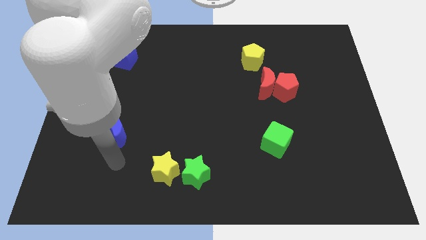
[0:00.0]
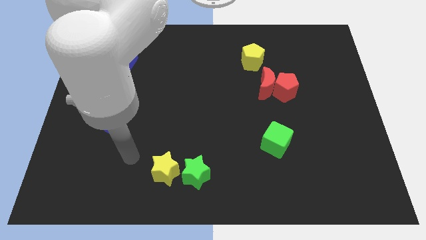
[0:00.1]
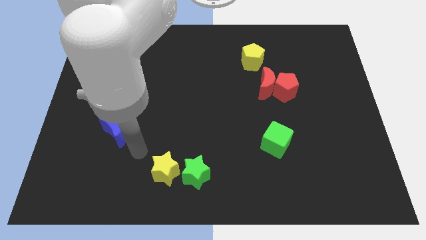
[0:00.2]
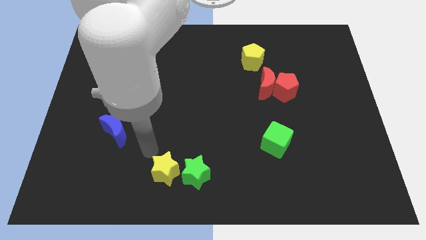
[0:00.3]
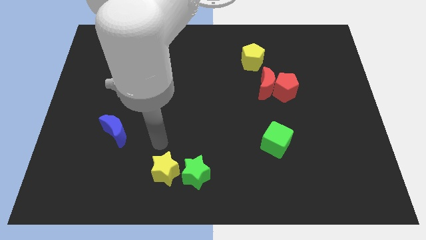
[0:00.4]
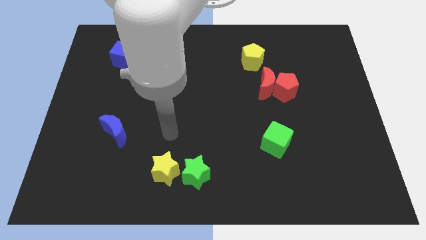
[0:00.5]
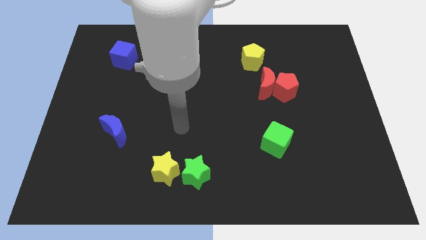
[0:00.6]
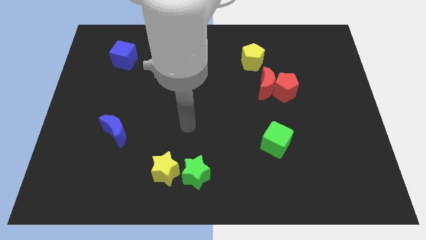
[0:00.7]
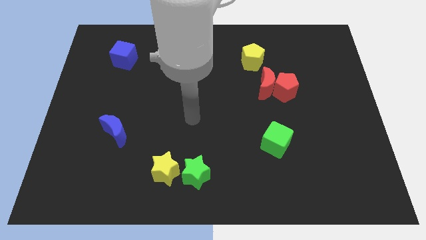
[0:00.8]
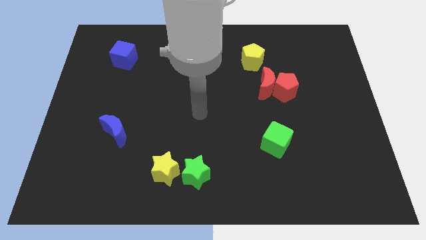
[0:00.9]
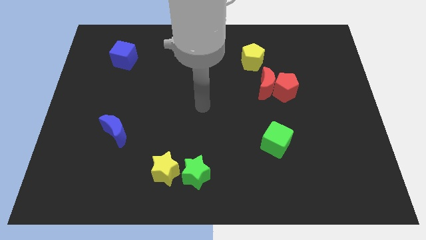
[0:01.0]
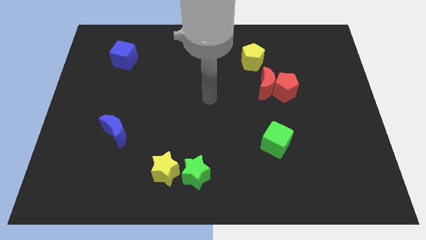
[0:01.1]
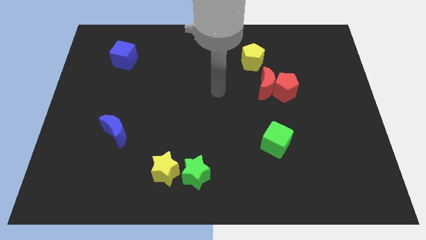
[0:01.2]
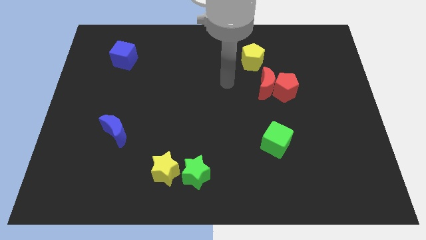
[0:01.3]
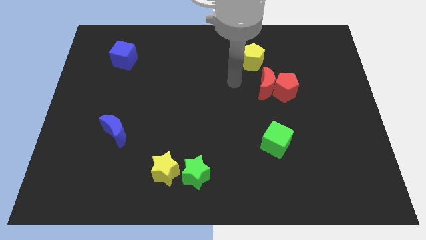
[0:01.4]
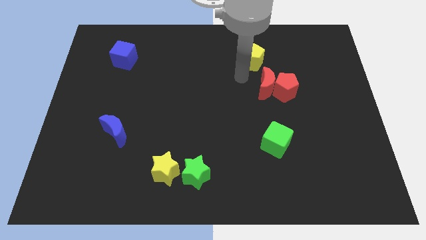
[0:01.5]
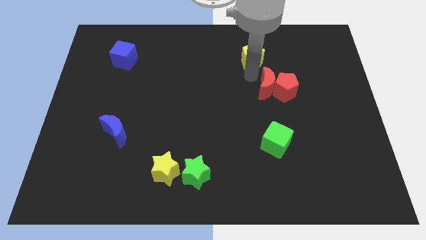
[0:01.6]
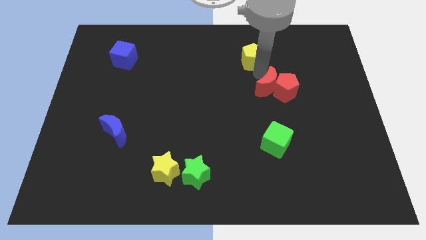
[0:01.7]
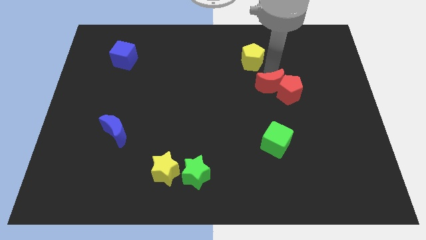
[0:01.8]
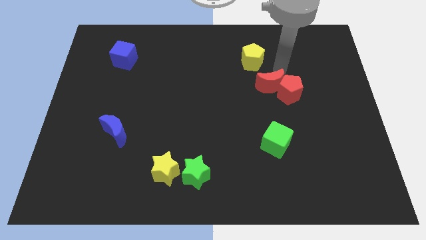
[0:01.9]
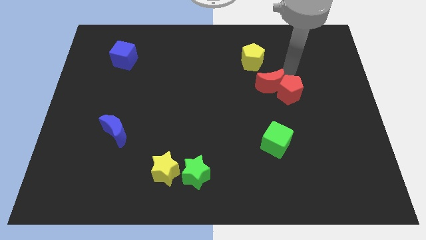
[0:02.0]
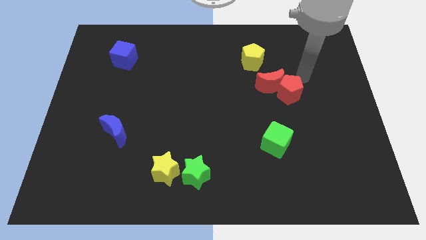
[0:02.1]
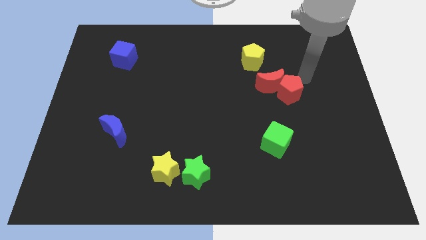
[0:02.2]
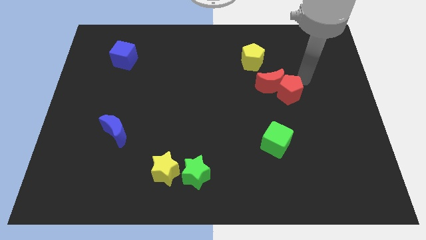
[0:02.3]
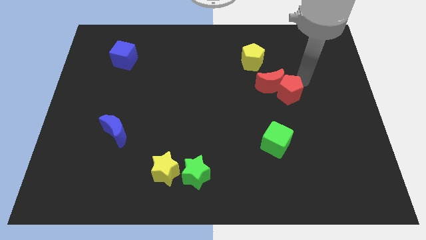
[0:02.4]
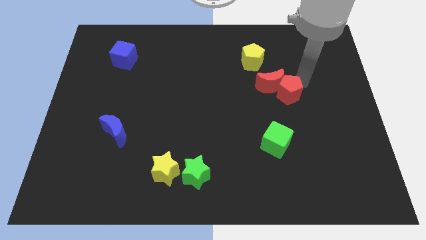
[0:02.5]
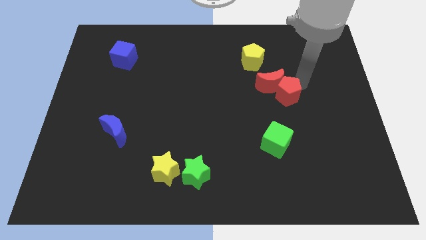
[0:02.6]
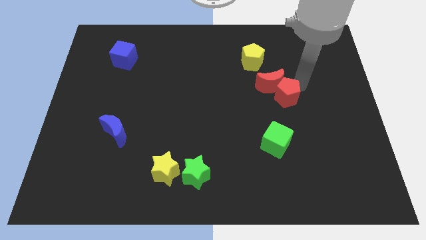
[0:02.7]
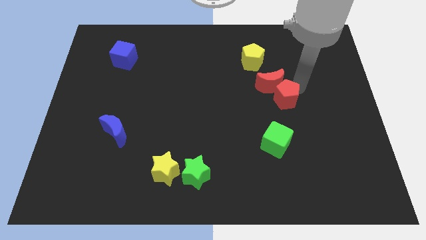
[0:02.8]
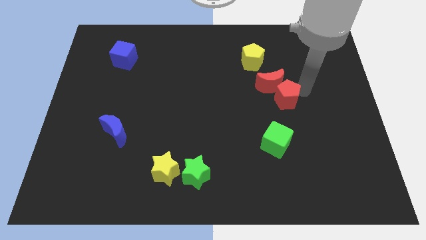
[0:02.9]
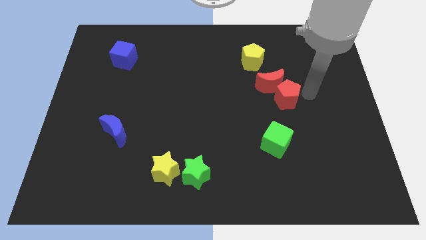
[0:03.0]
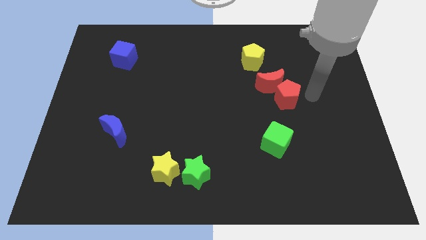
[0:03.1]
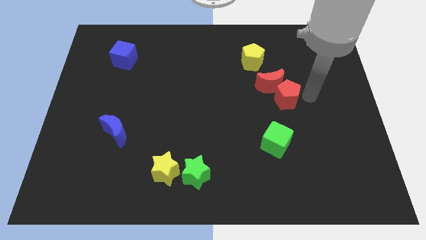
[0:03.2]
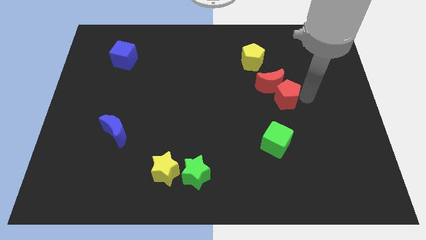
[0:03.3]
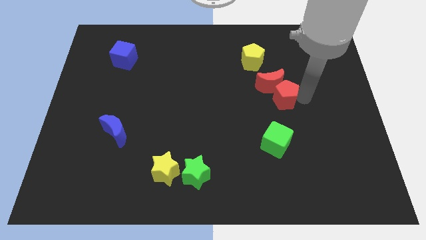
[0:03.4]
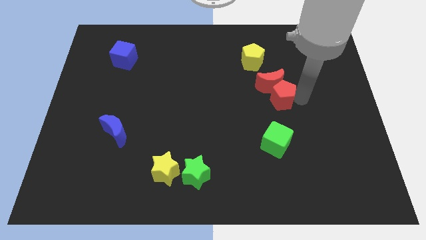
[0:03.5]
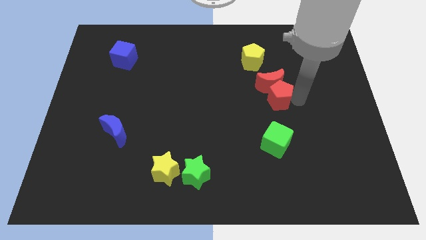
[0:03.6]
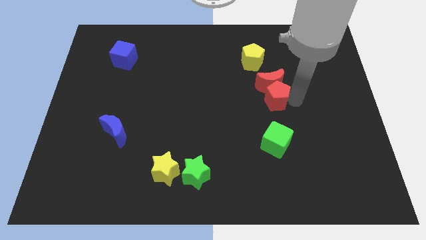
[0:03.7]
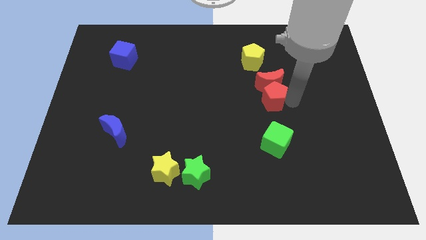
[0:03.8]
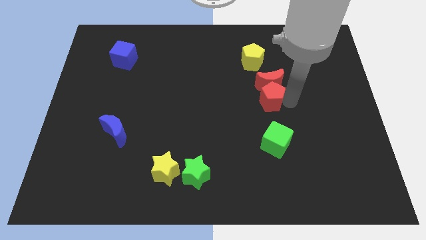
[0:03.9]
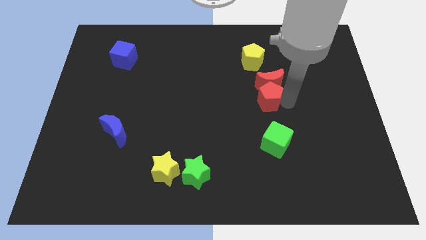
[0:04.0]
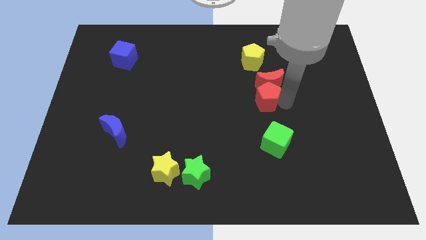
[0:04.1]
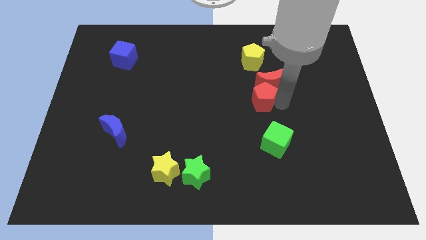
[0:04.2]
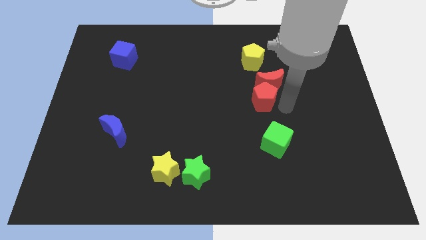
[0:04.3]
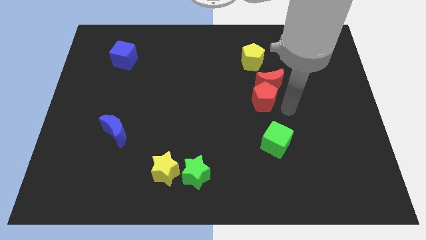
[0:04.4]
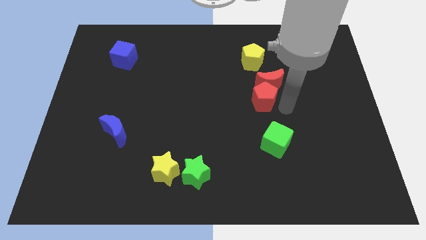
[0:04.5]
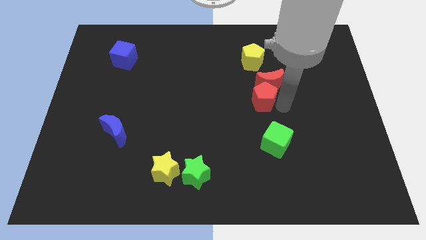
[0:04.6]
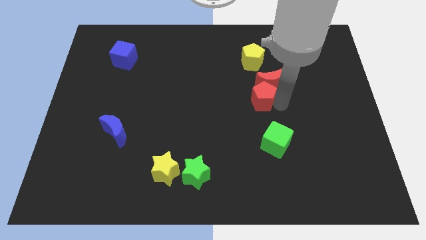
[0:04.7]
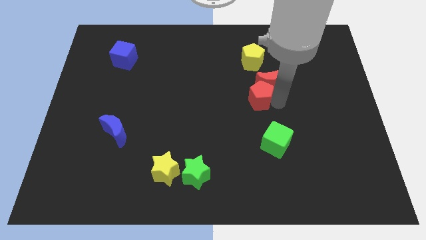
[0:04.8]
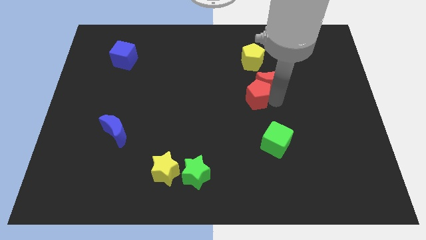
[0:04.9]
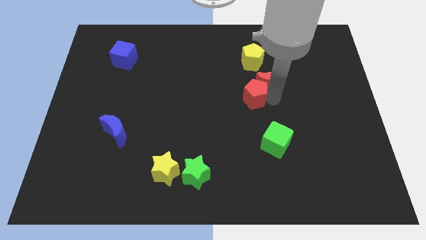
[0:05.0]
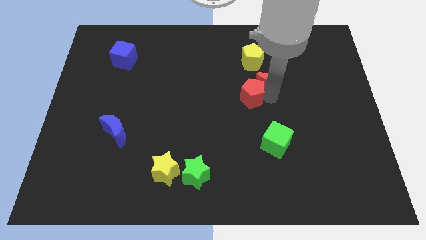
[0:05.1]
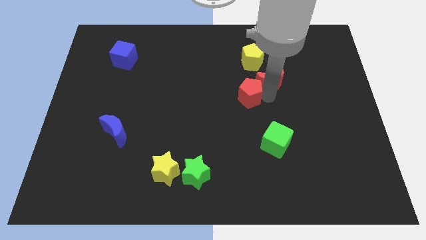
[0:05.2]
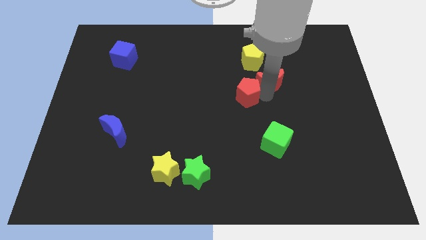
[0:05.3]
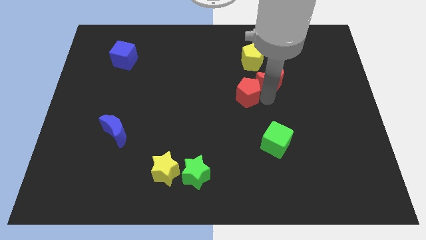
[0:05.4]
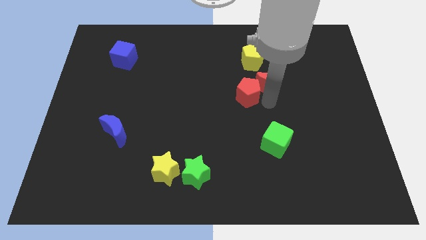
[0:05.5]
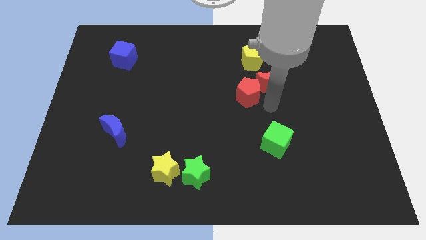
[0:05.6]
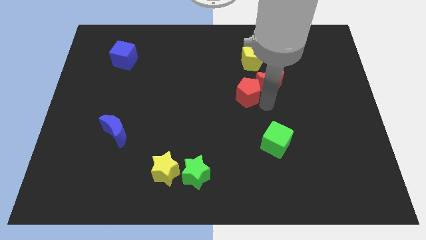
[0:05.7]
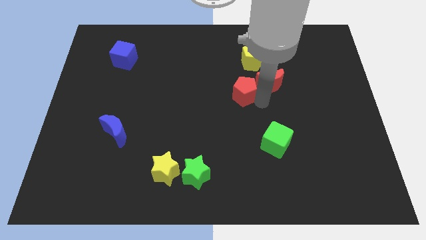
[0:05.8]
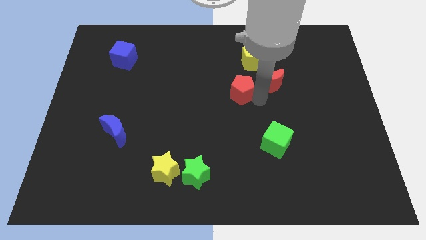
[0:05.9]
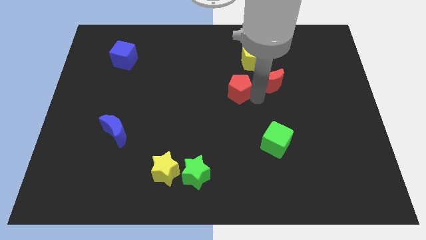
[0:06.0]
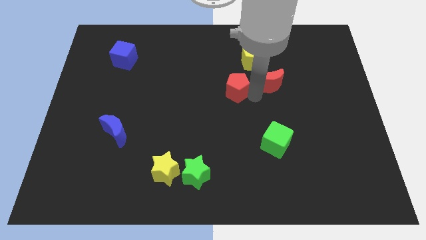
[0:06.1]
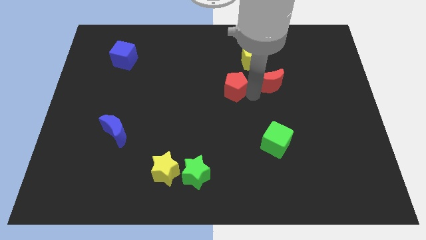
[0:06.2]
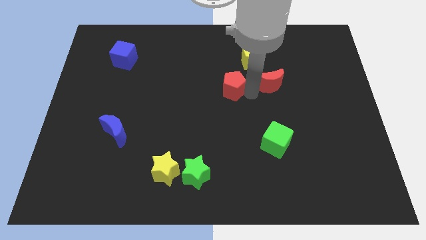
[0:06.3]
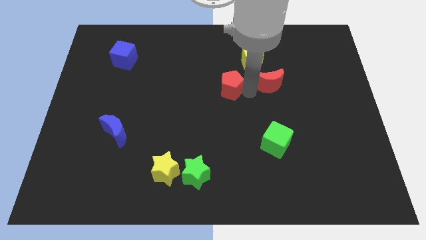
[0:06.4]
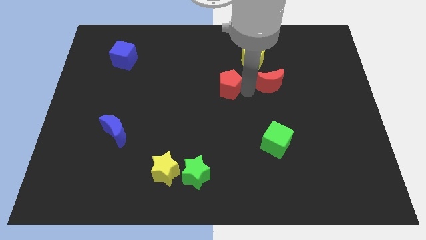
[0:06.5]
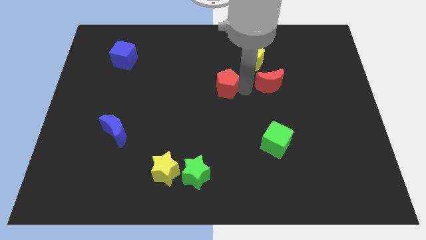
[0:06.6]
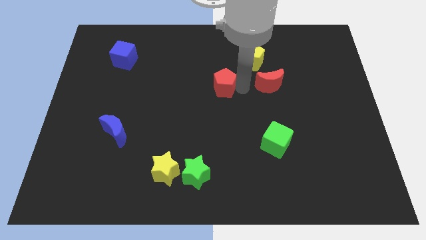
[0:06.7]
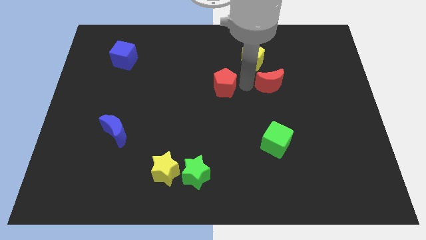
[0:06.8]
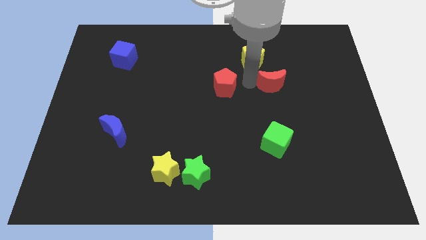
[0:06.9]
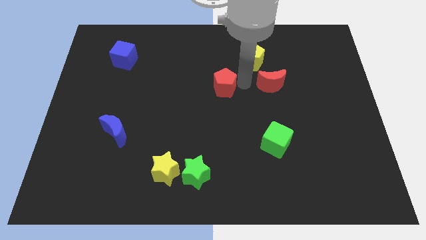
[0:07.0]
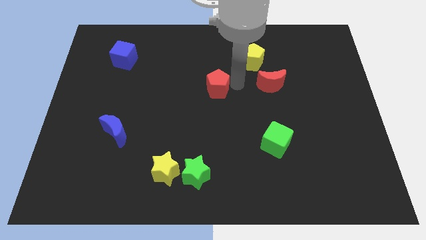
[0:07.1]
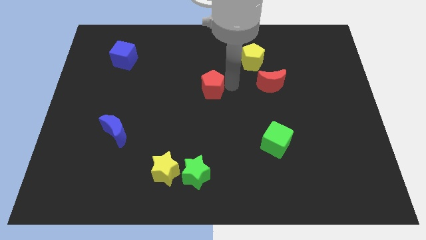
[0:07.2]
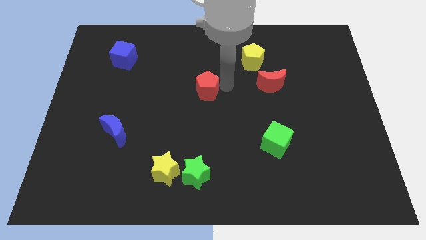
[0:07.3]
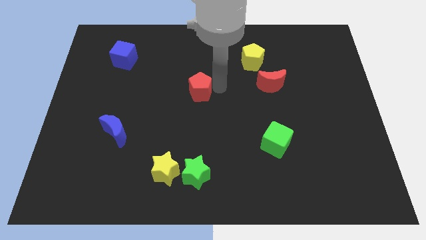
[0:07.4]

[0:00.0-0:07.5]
move the red pentagon to the left

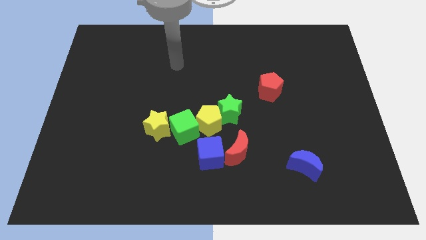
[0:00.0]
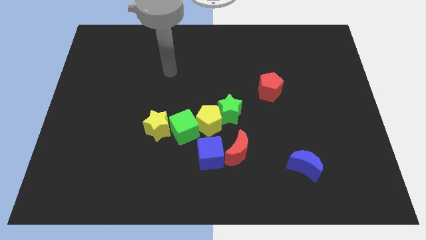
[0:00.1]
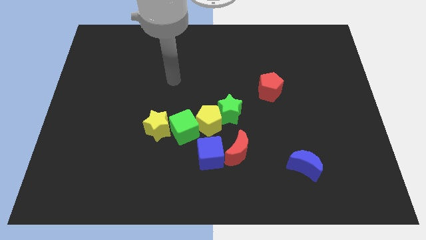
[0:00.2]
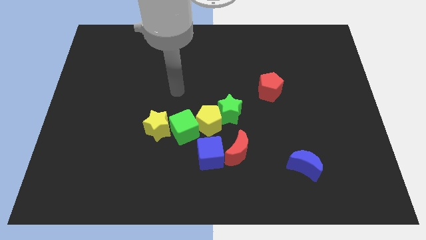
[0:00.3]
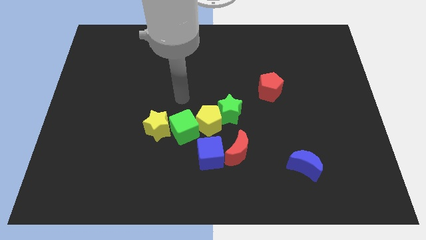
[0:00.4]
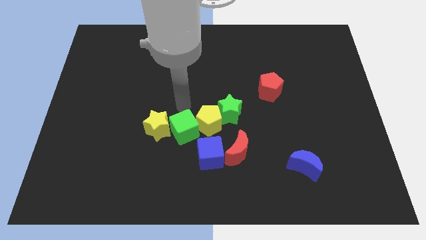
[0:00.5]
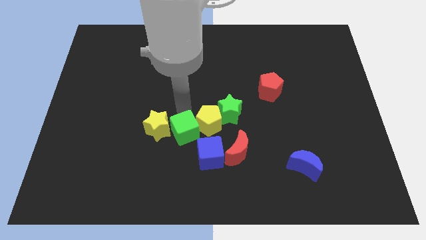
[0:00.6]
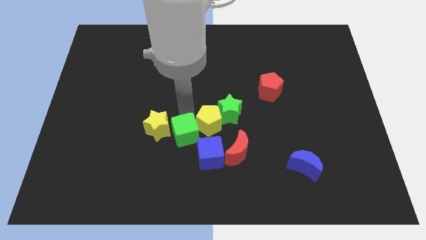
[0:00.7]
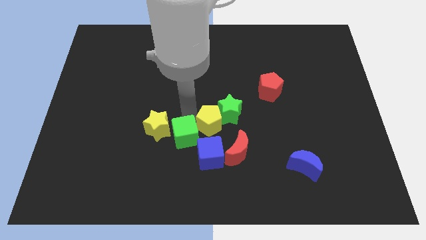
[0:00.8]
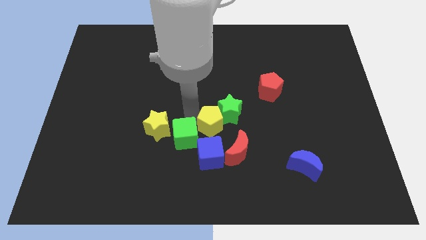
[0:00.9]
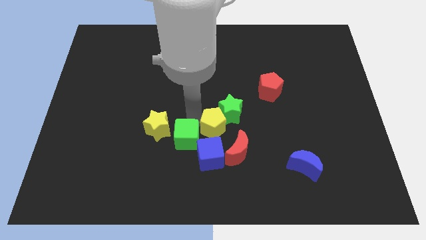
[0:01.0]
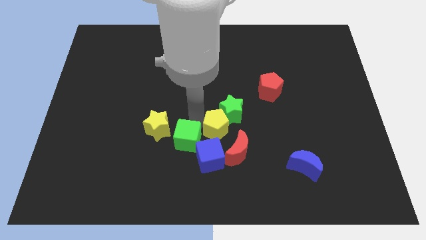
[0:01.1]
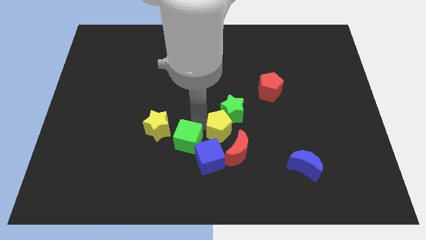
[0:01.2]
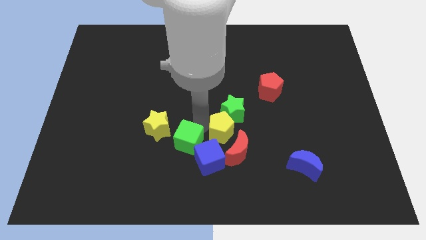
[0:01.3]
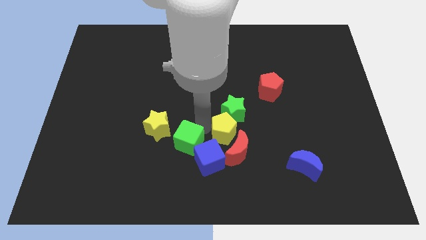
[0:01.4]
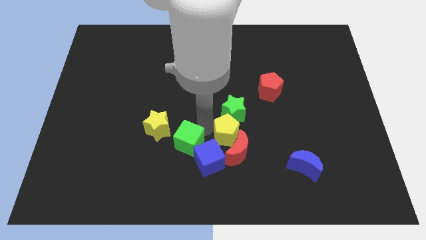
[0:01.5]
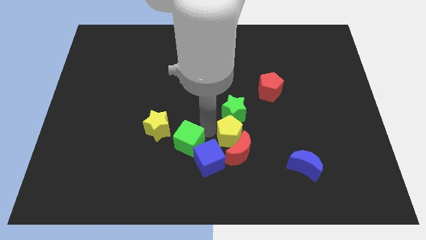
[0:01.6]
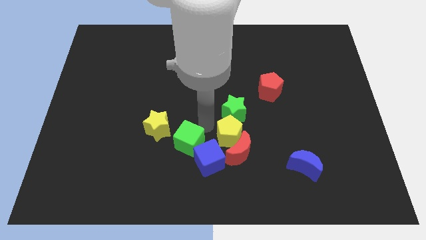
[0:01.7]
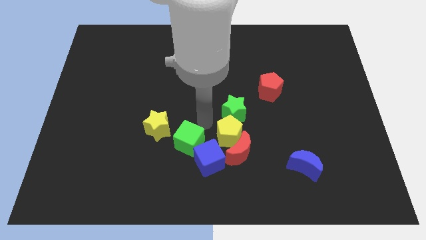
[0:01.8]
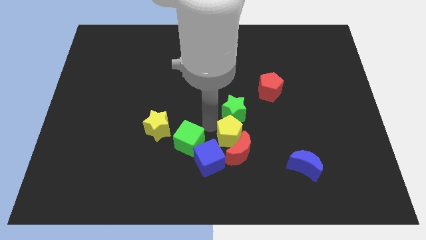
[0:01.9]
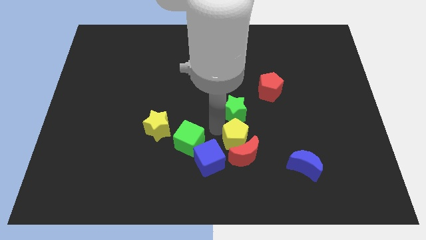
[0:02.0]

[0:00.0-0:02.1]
slightly move the yellow pentagon diagonally downwards and right
